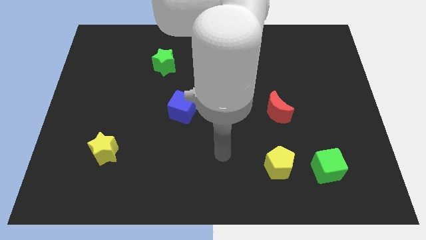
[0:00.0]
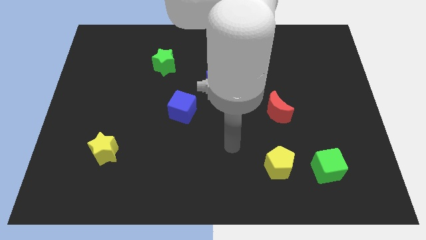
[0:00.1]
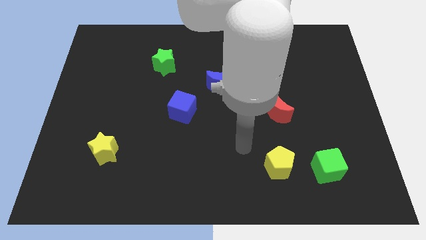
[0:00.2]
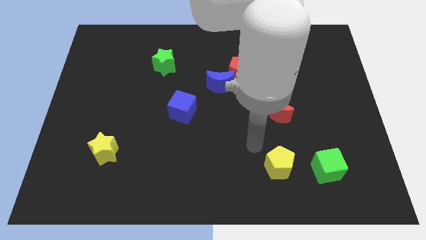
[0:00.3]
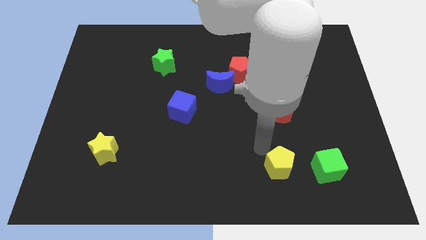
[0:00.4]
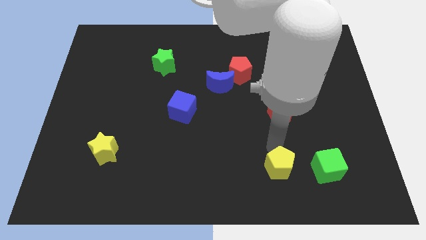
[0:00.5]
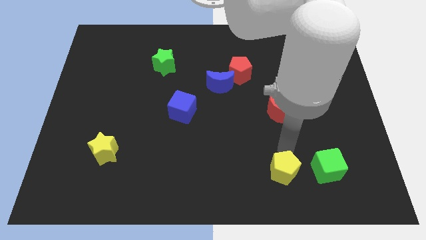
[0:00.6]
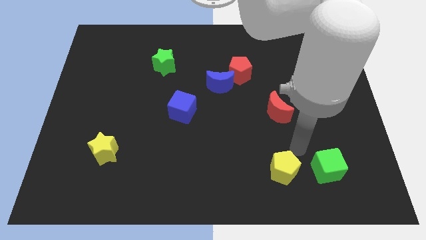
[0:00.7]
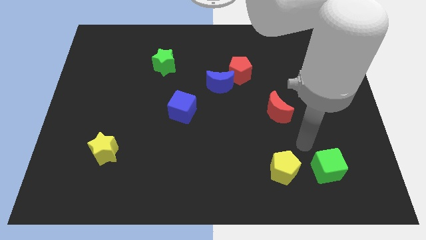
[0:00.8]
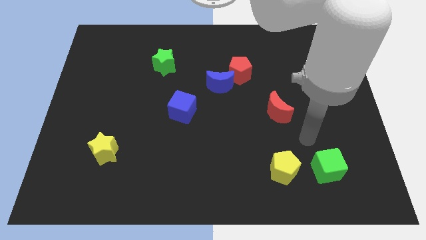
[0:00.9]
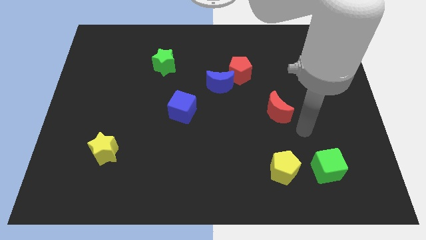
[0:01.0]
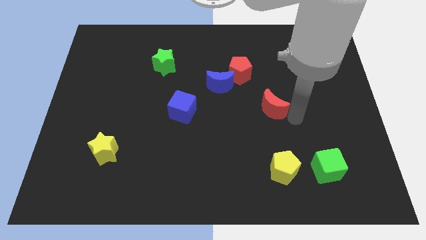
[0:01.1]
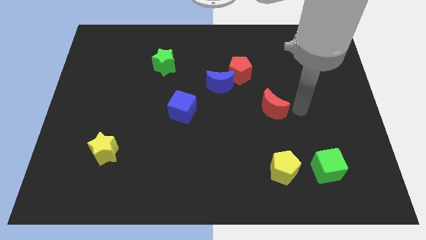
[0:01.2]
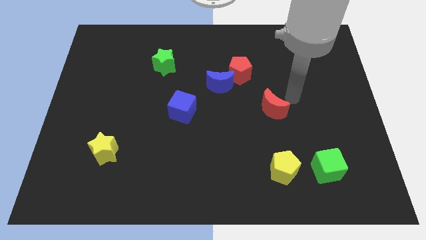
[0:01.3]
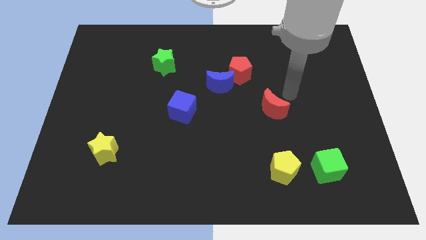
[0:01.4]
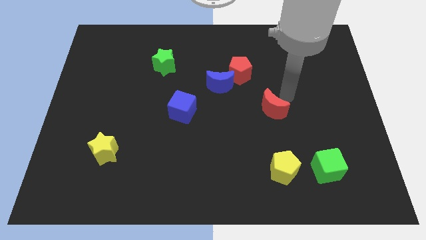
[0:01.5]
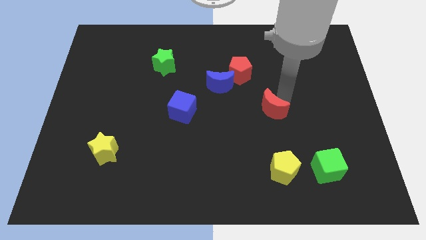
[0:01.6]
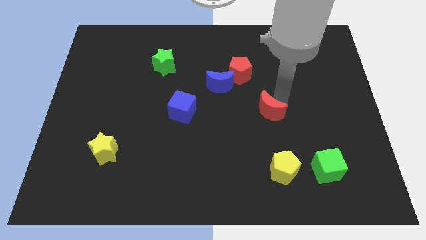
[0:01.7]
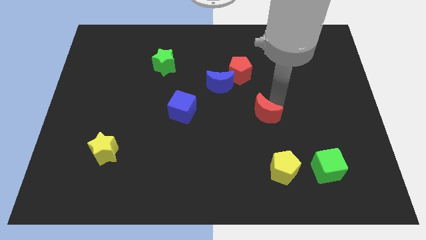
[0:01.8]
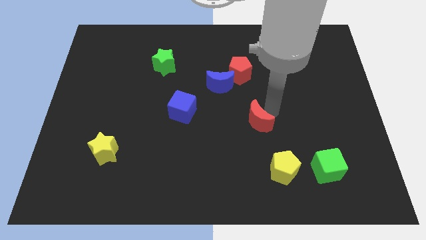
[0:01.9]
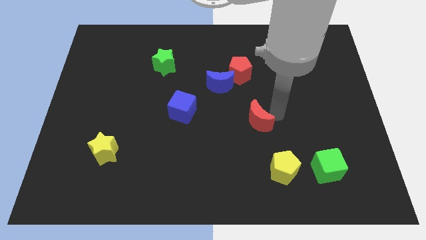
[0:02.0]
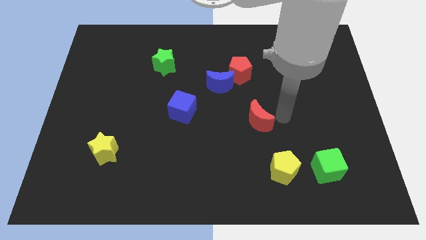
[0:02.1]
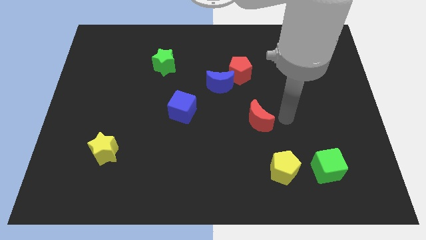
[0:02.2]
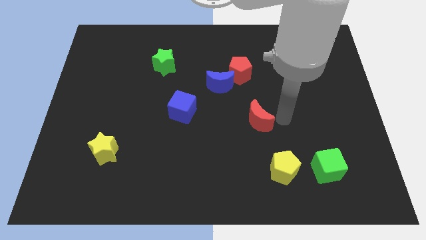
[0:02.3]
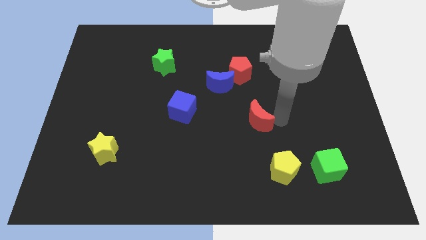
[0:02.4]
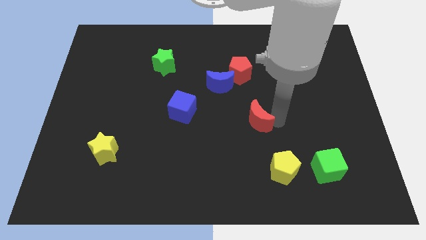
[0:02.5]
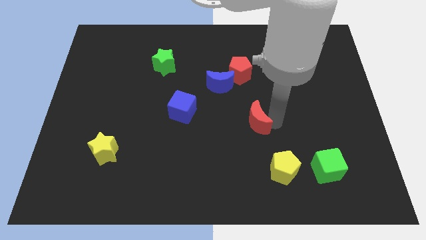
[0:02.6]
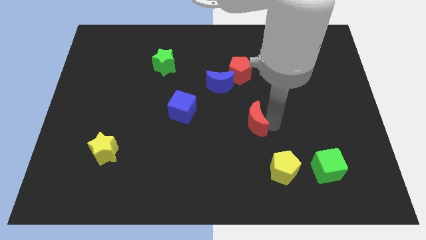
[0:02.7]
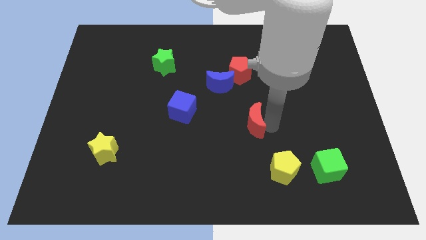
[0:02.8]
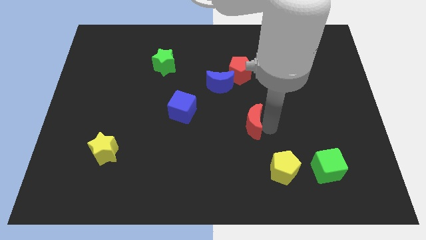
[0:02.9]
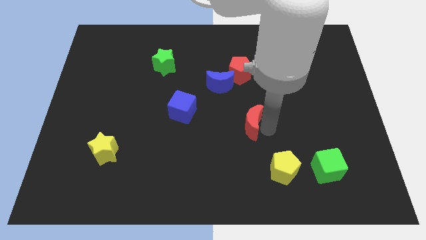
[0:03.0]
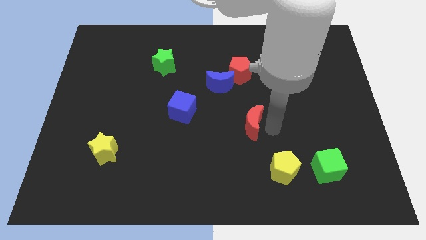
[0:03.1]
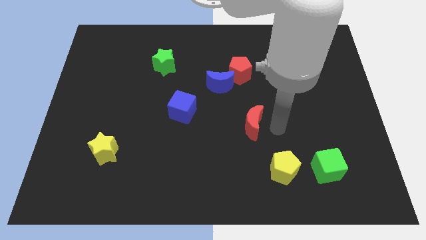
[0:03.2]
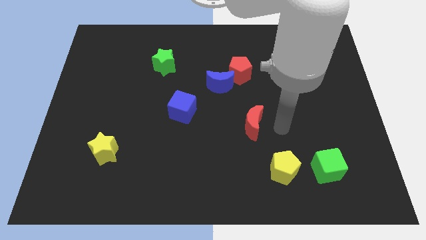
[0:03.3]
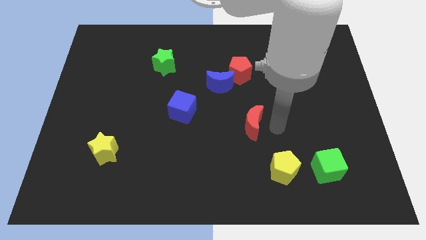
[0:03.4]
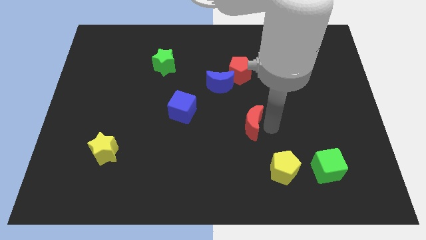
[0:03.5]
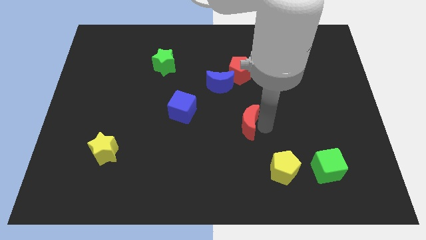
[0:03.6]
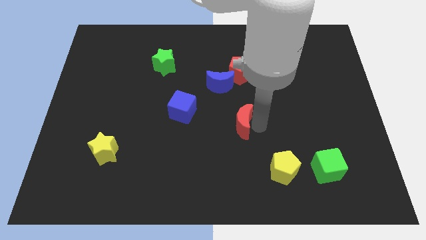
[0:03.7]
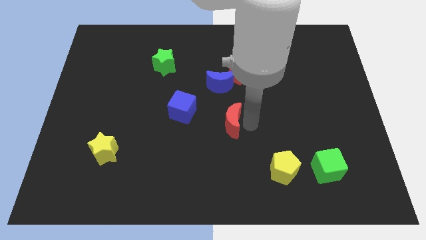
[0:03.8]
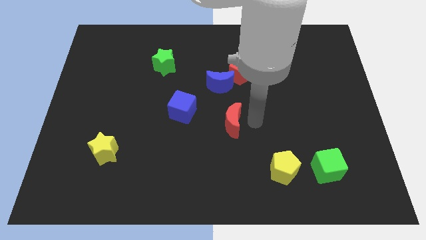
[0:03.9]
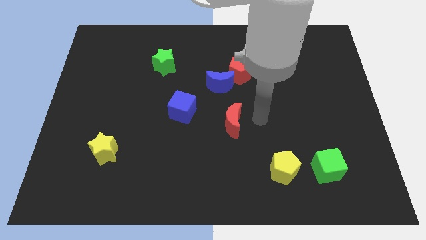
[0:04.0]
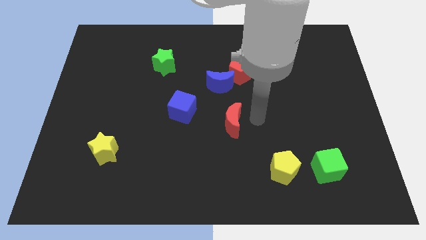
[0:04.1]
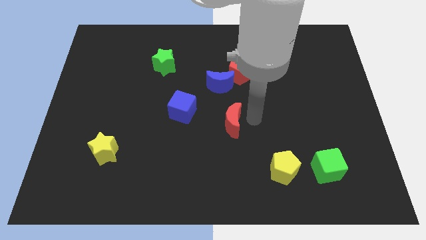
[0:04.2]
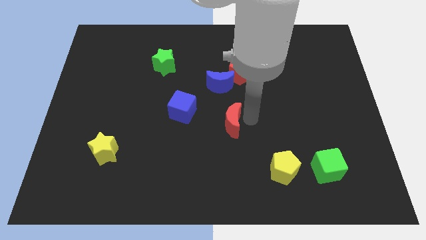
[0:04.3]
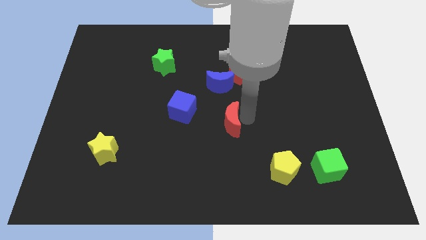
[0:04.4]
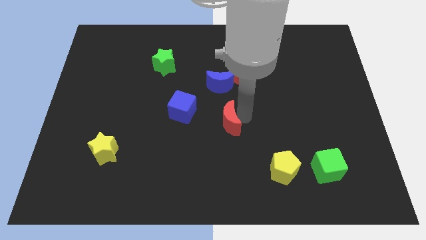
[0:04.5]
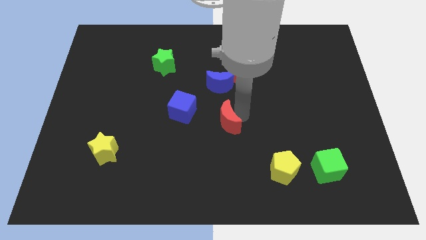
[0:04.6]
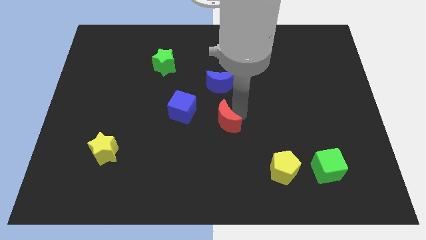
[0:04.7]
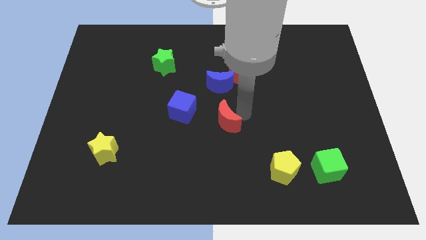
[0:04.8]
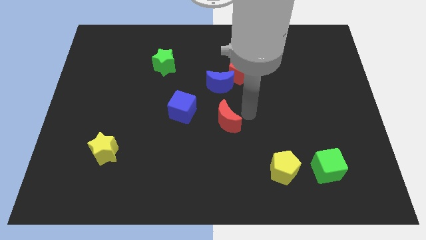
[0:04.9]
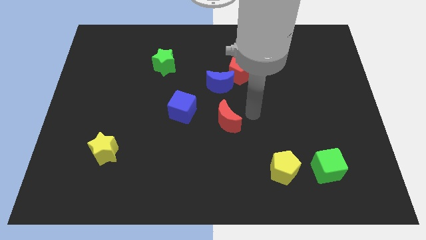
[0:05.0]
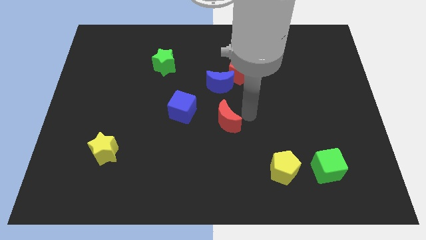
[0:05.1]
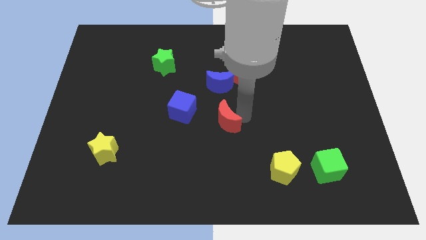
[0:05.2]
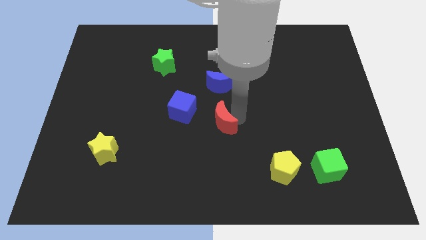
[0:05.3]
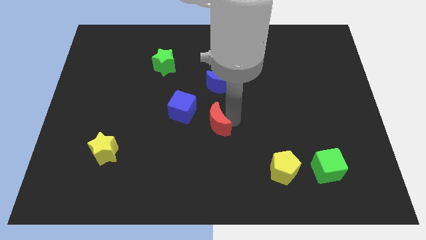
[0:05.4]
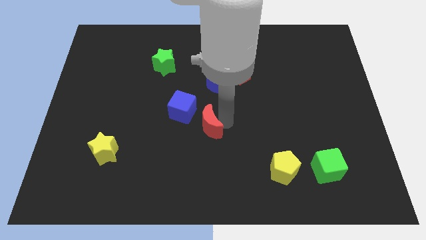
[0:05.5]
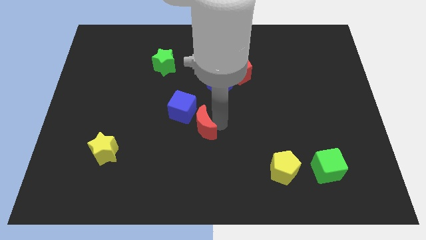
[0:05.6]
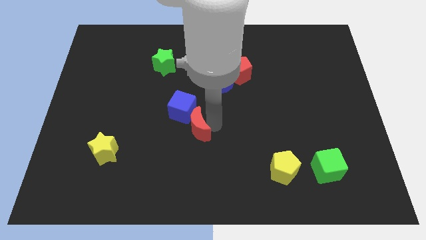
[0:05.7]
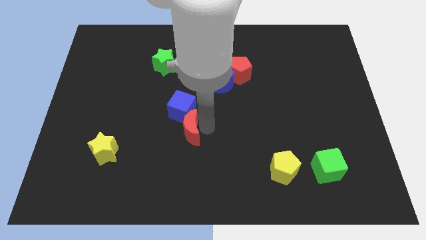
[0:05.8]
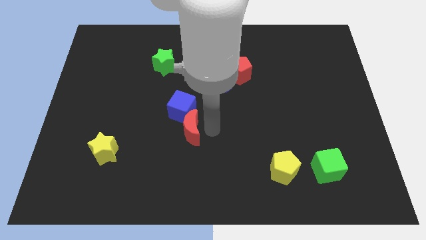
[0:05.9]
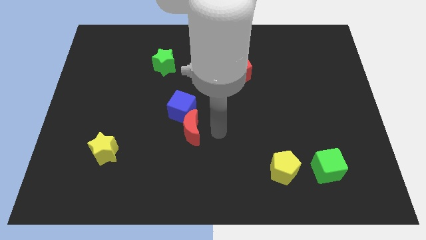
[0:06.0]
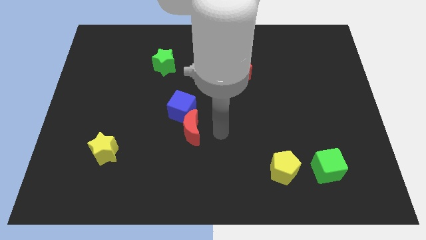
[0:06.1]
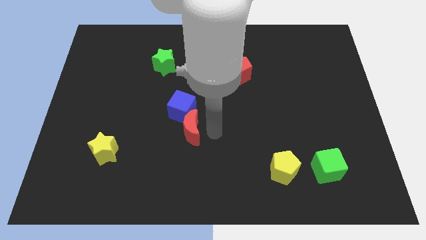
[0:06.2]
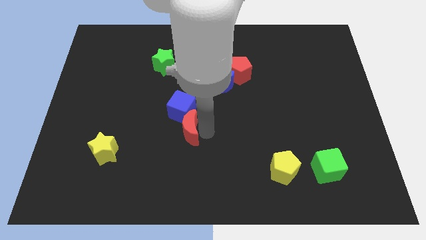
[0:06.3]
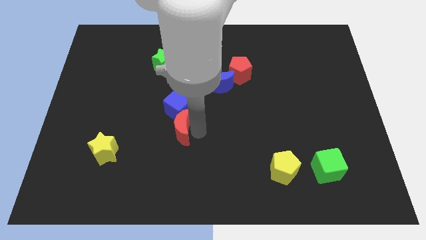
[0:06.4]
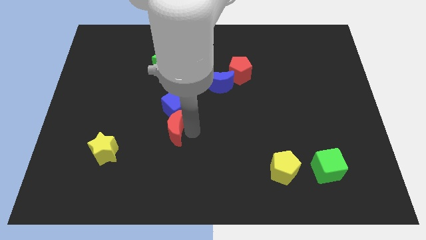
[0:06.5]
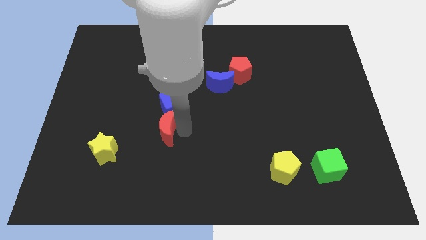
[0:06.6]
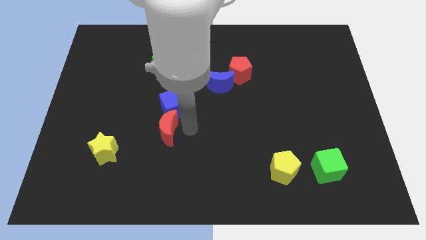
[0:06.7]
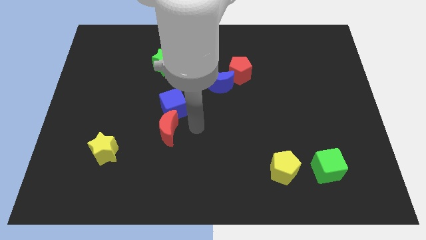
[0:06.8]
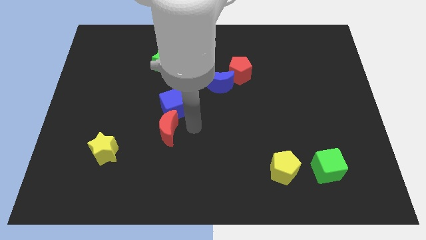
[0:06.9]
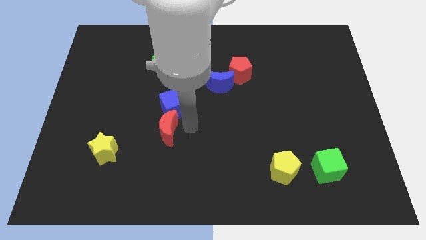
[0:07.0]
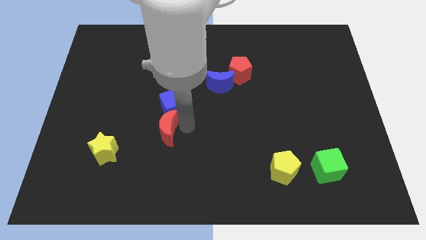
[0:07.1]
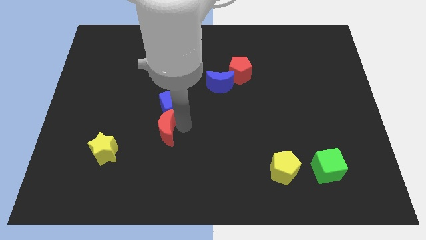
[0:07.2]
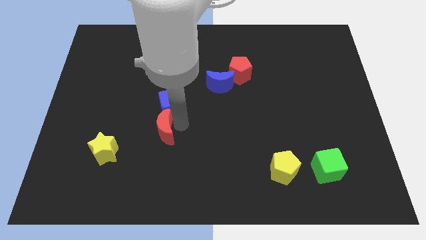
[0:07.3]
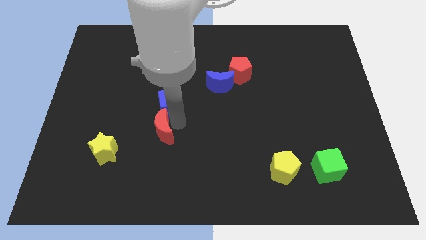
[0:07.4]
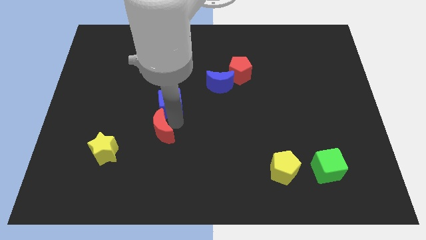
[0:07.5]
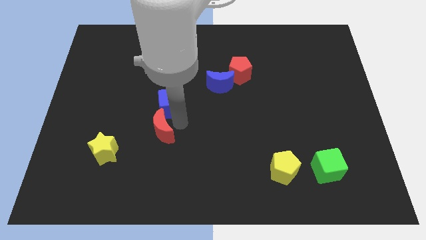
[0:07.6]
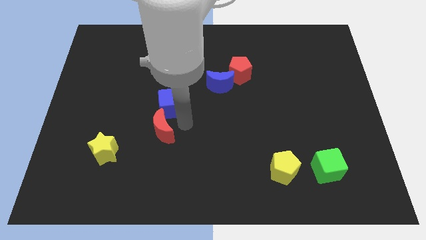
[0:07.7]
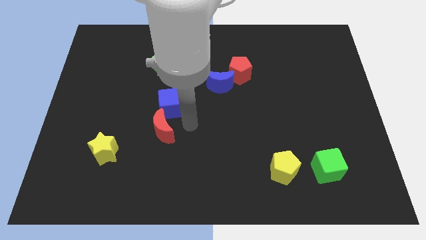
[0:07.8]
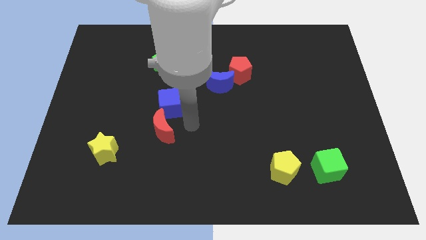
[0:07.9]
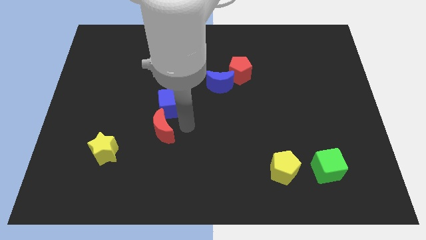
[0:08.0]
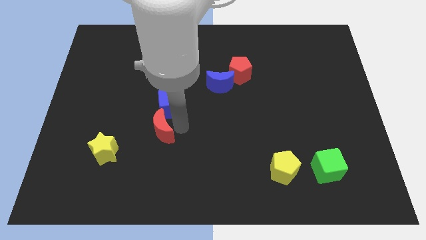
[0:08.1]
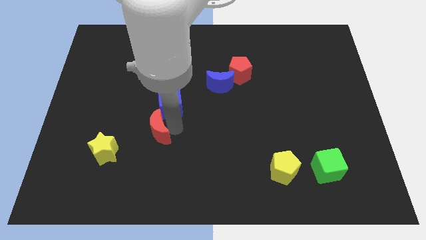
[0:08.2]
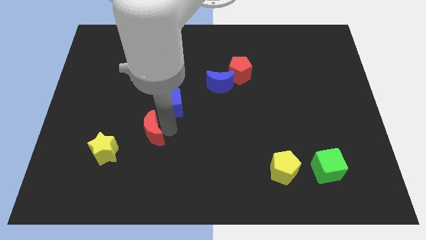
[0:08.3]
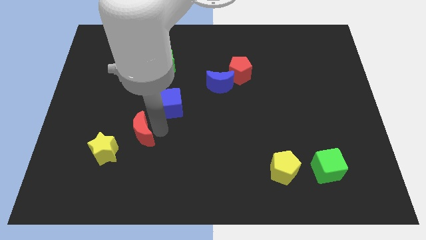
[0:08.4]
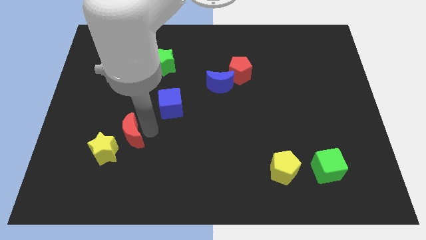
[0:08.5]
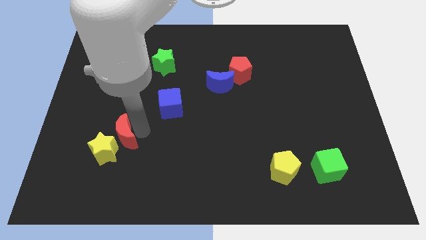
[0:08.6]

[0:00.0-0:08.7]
push the red moon next to the yellow star
